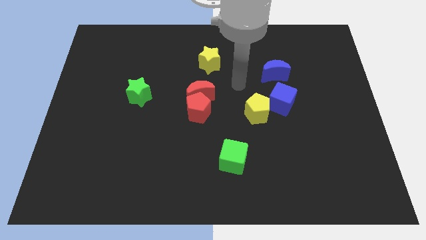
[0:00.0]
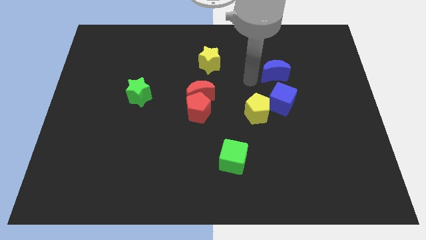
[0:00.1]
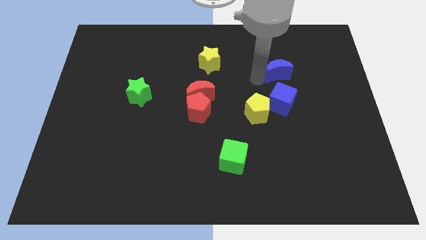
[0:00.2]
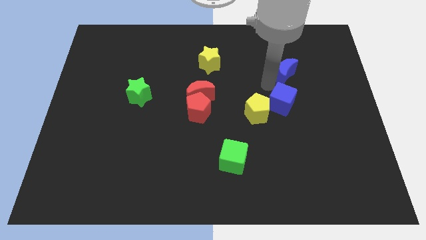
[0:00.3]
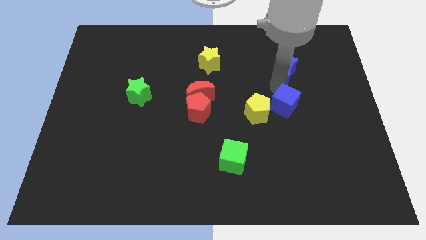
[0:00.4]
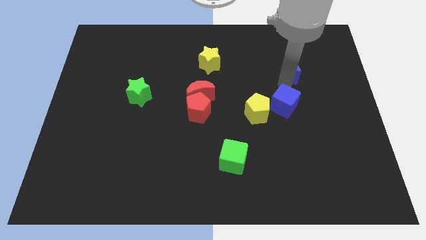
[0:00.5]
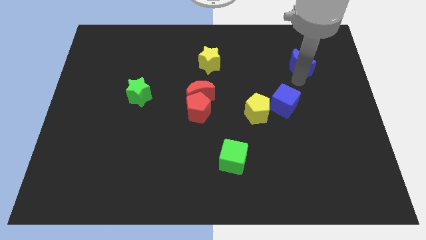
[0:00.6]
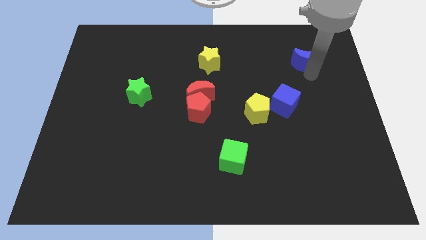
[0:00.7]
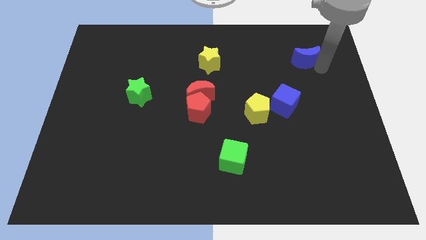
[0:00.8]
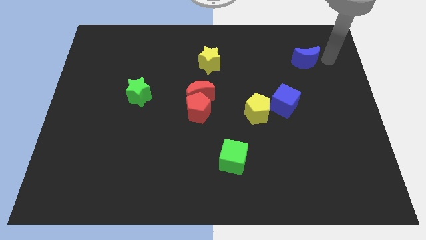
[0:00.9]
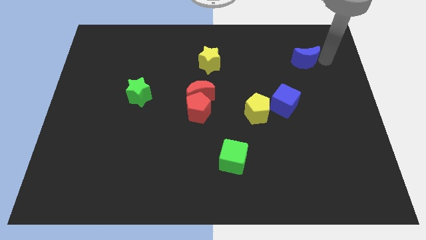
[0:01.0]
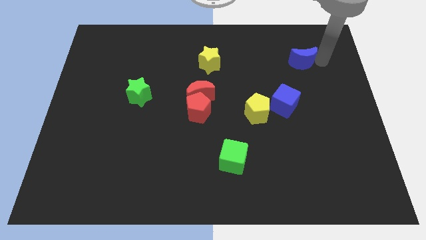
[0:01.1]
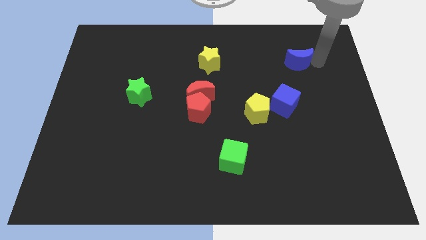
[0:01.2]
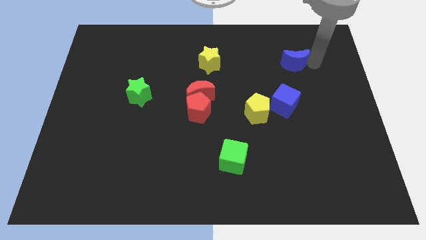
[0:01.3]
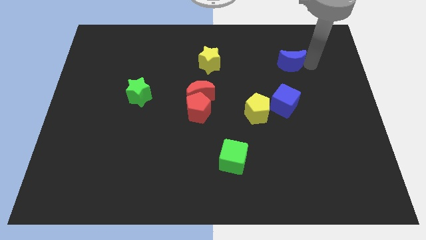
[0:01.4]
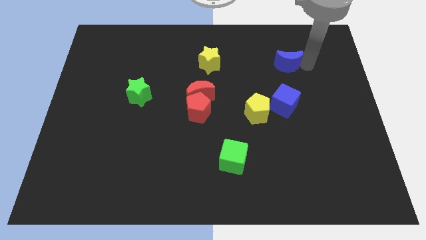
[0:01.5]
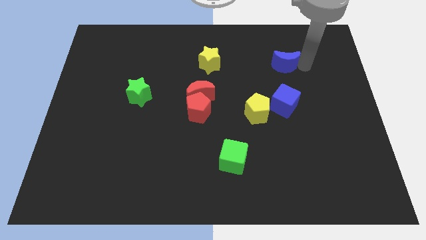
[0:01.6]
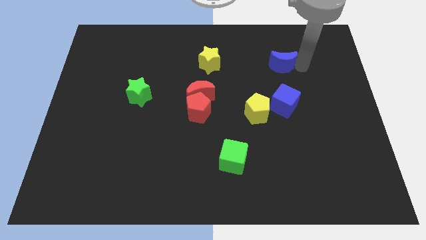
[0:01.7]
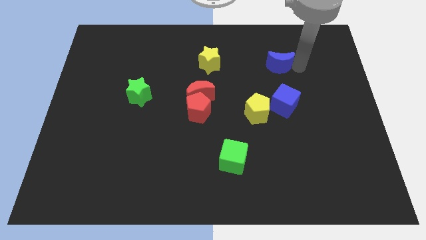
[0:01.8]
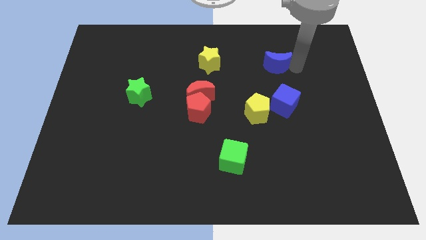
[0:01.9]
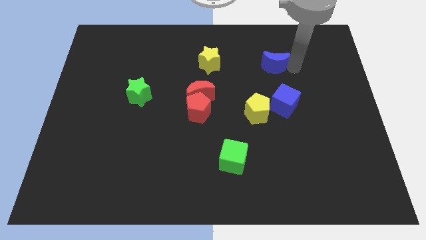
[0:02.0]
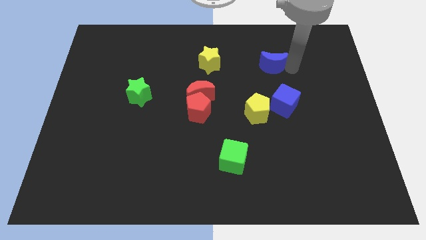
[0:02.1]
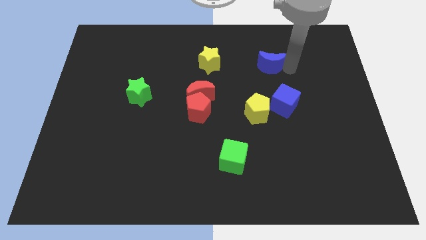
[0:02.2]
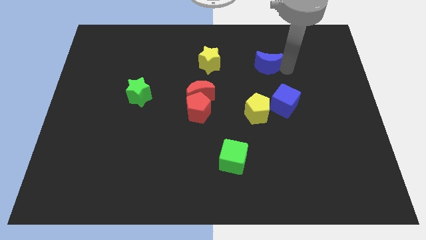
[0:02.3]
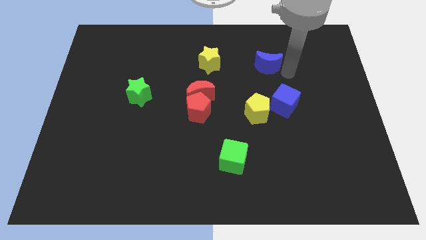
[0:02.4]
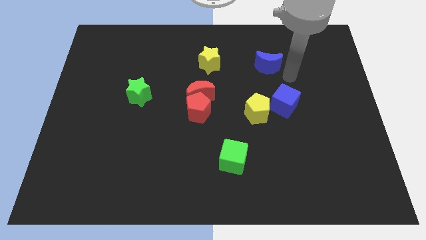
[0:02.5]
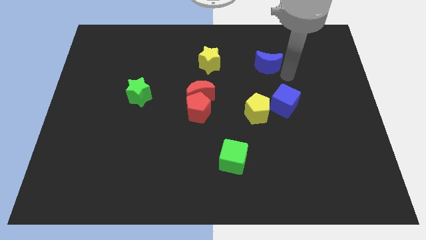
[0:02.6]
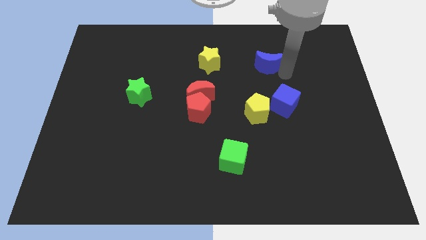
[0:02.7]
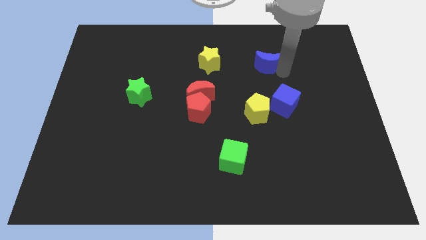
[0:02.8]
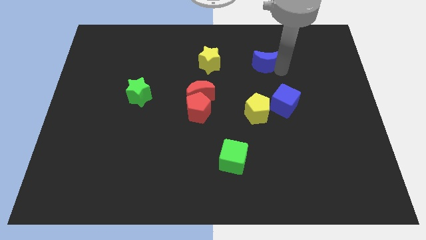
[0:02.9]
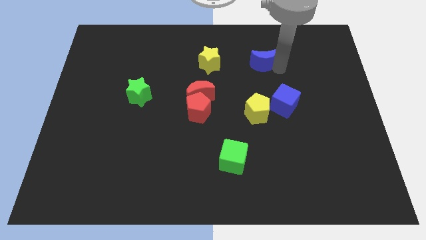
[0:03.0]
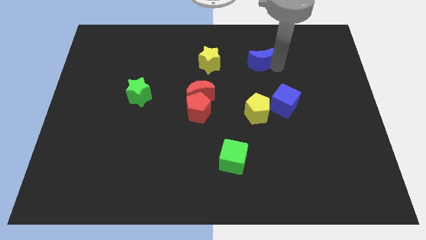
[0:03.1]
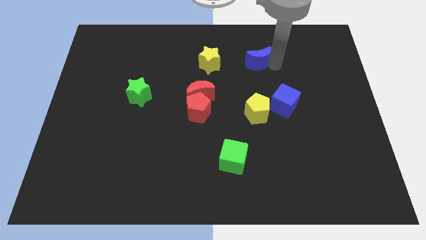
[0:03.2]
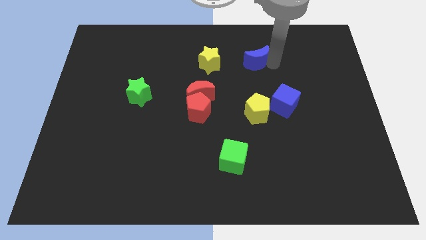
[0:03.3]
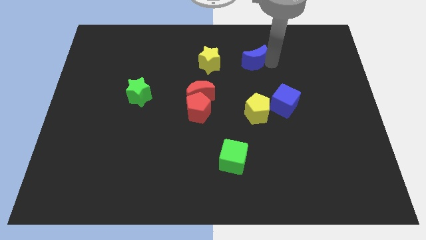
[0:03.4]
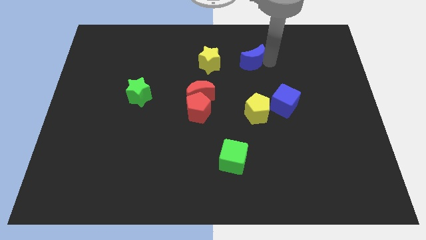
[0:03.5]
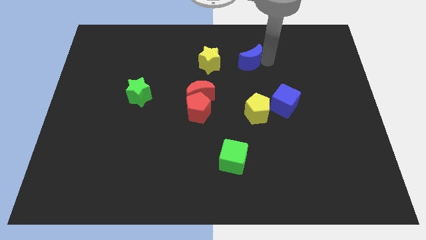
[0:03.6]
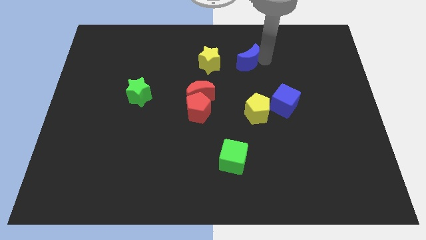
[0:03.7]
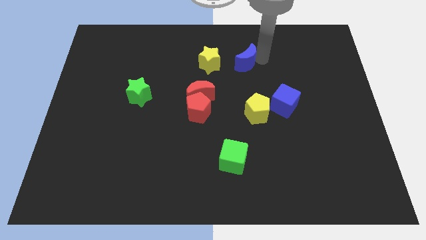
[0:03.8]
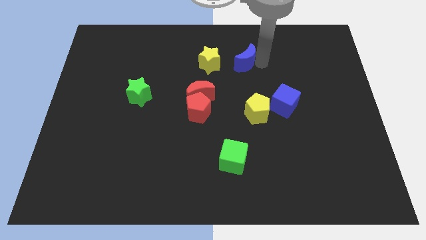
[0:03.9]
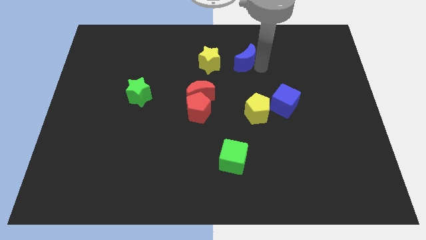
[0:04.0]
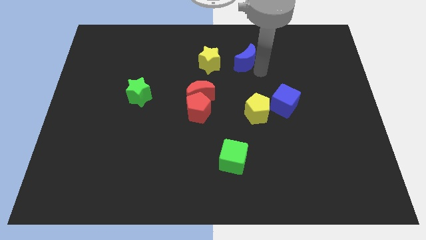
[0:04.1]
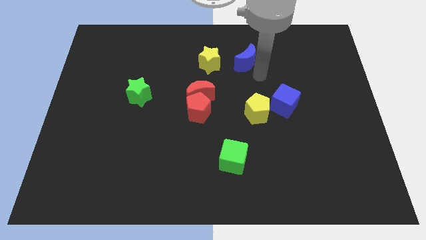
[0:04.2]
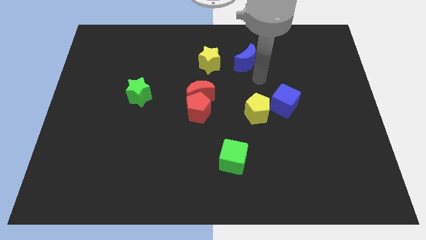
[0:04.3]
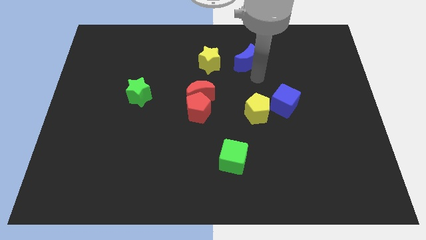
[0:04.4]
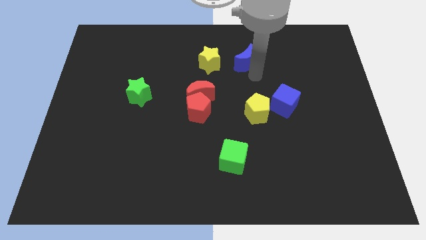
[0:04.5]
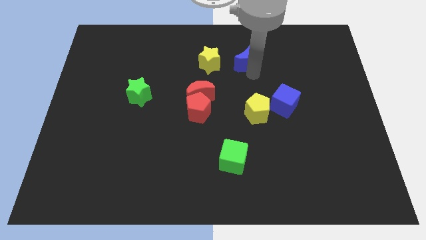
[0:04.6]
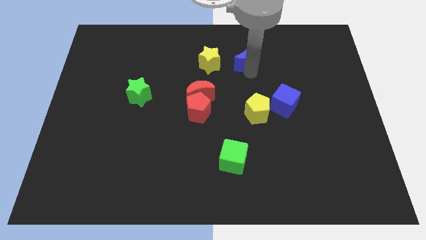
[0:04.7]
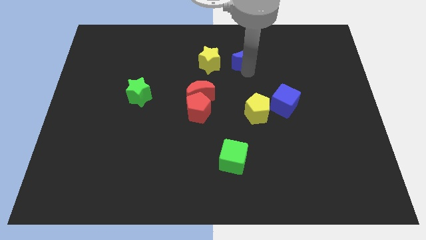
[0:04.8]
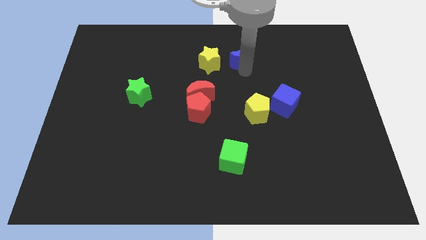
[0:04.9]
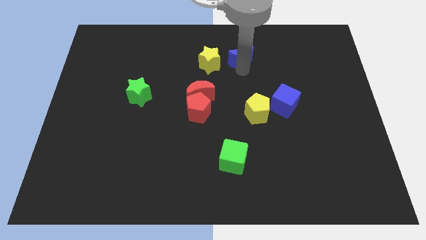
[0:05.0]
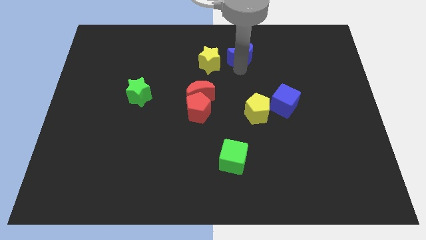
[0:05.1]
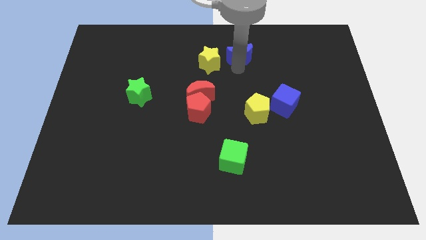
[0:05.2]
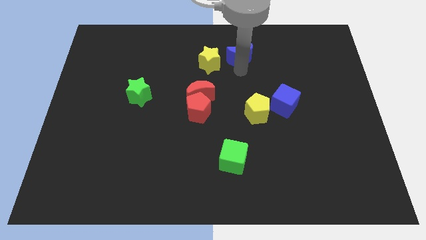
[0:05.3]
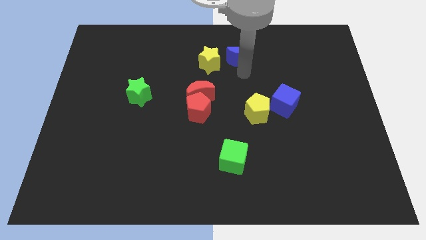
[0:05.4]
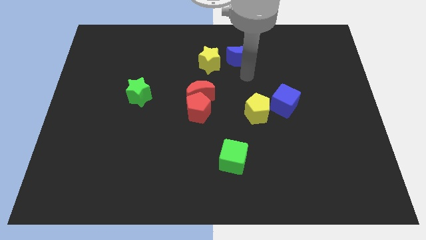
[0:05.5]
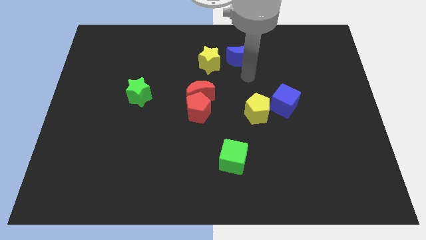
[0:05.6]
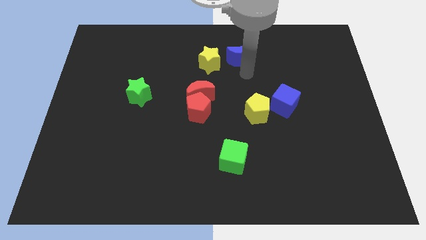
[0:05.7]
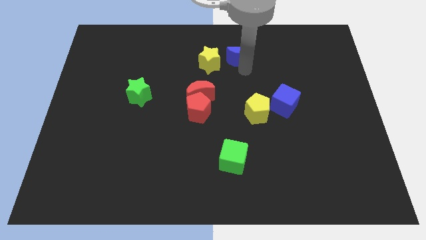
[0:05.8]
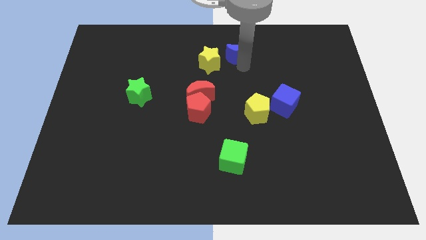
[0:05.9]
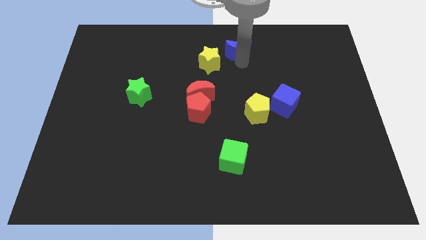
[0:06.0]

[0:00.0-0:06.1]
move the blue moon to the towards your base
